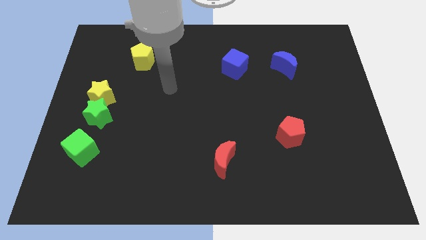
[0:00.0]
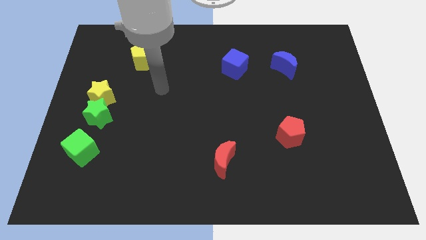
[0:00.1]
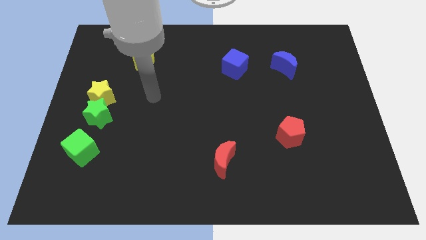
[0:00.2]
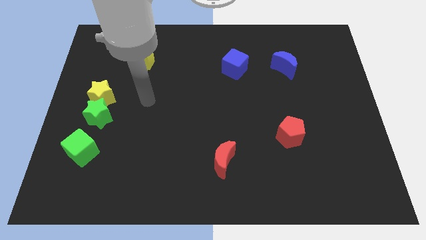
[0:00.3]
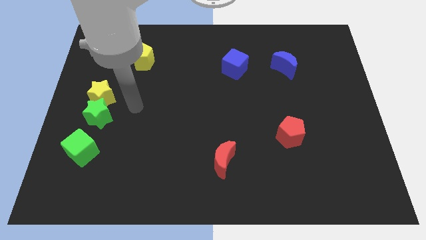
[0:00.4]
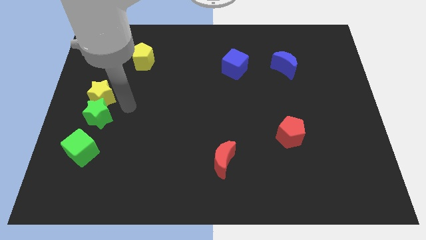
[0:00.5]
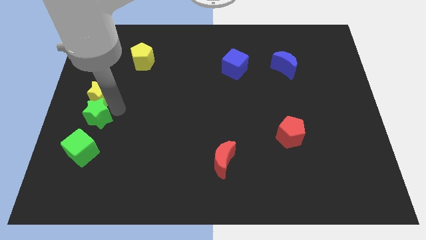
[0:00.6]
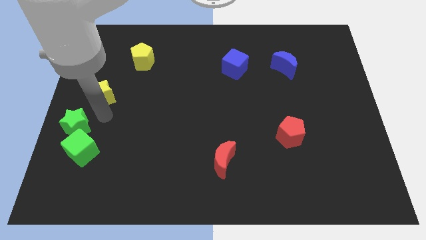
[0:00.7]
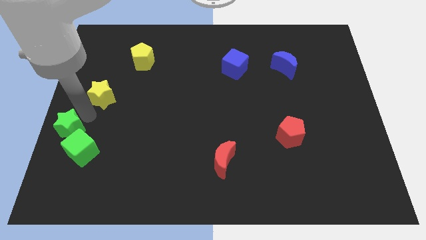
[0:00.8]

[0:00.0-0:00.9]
move the yellow star away from the green star

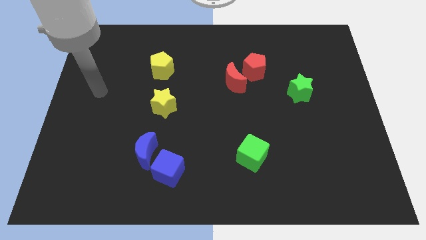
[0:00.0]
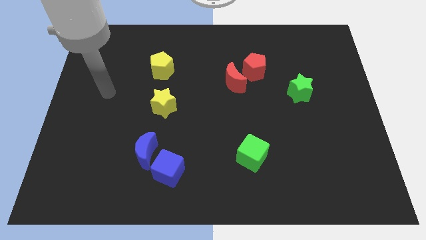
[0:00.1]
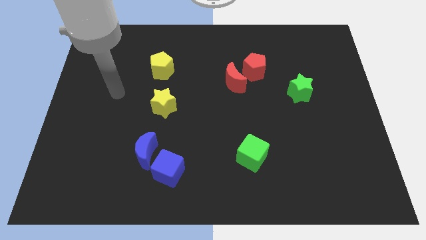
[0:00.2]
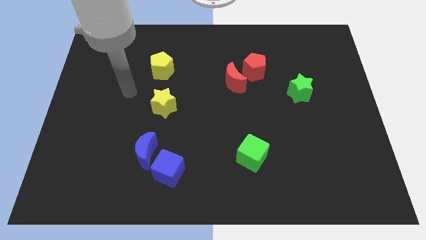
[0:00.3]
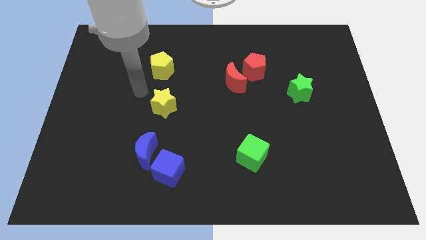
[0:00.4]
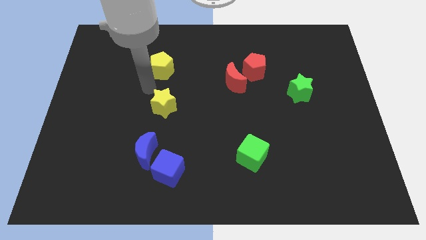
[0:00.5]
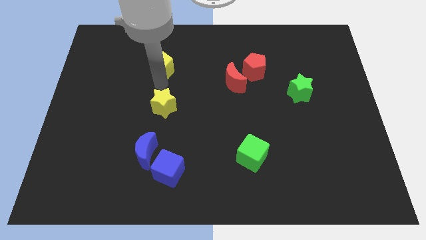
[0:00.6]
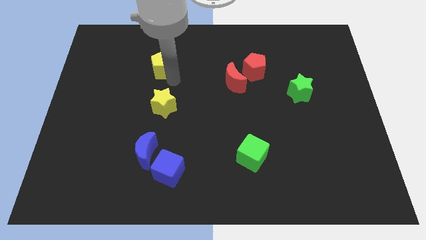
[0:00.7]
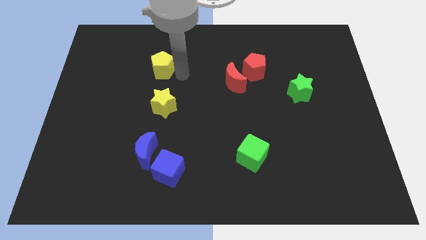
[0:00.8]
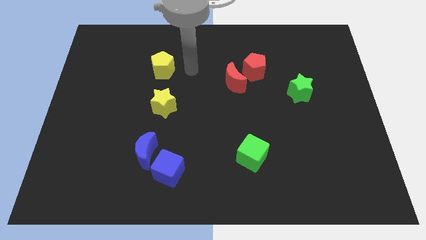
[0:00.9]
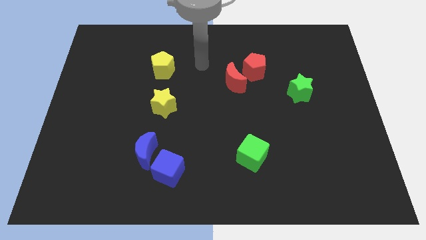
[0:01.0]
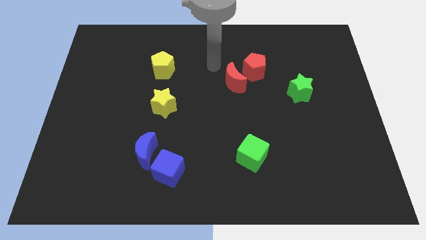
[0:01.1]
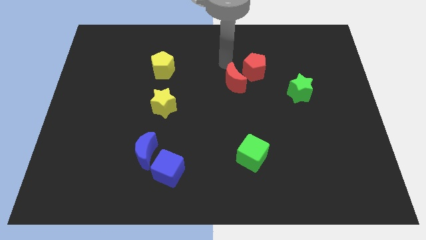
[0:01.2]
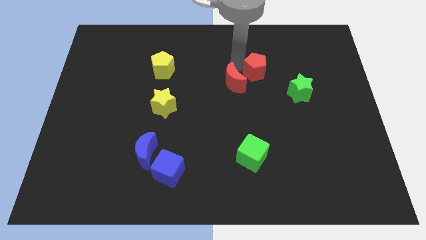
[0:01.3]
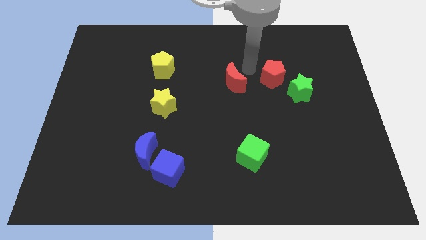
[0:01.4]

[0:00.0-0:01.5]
pull the red moon apart from the red pentagon

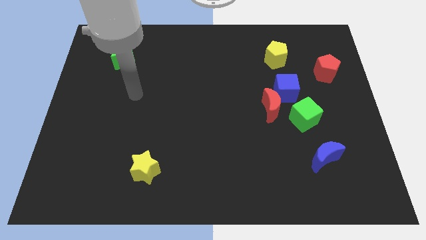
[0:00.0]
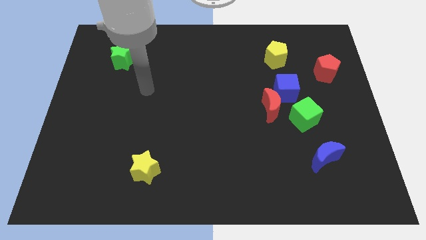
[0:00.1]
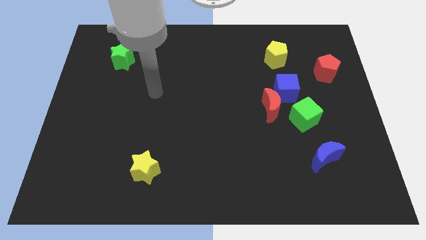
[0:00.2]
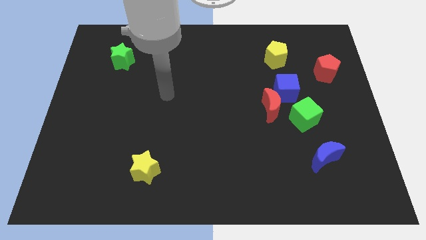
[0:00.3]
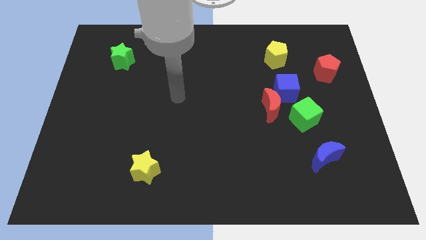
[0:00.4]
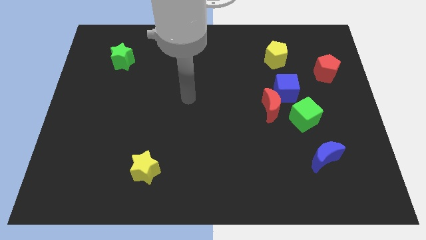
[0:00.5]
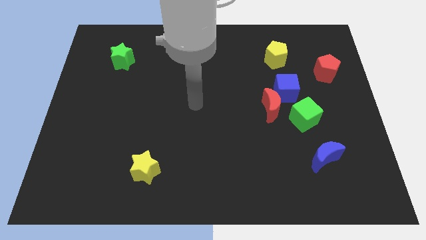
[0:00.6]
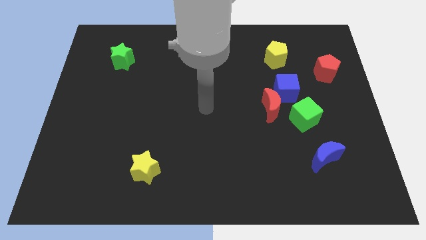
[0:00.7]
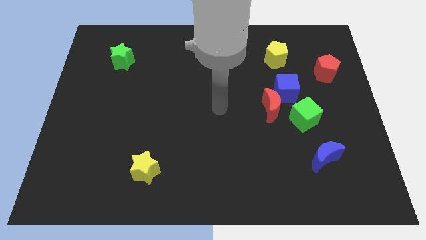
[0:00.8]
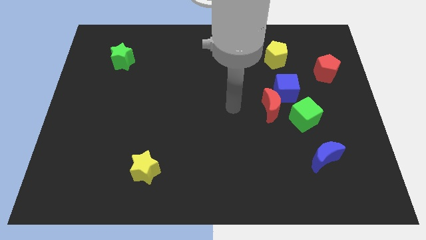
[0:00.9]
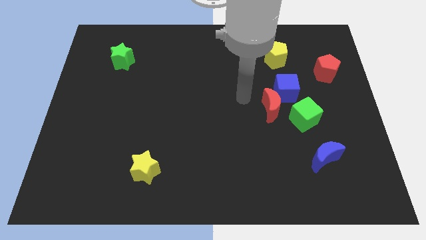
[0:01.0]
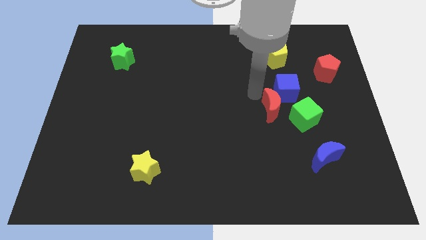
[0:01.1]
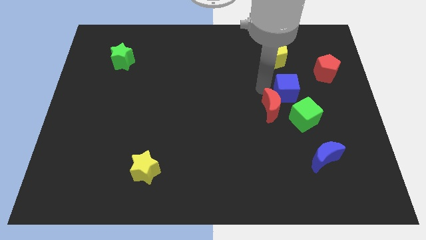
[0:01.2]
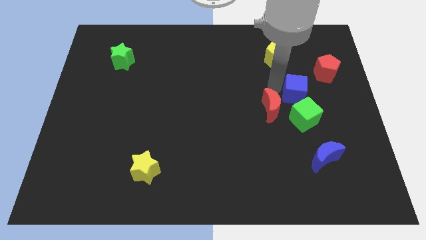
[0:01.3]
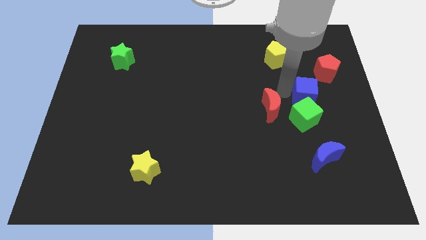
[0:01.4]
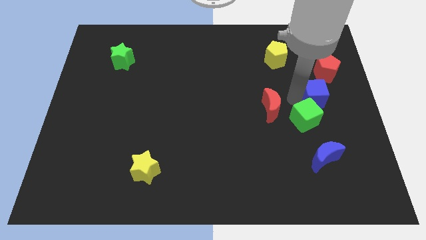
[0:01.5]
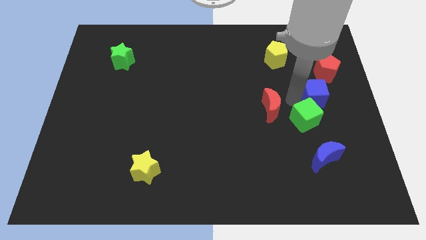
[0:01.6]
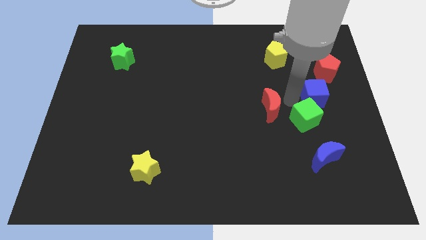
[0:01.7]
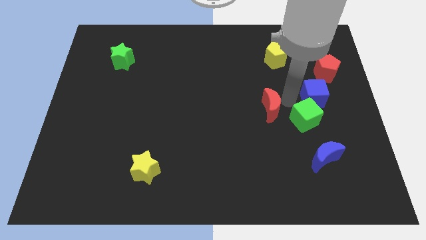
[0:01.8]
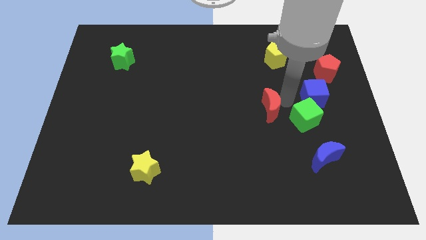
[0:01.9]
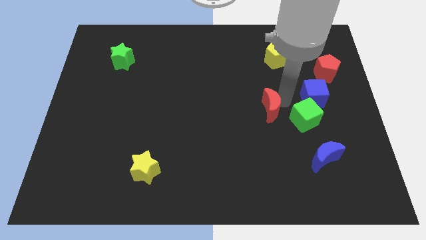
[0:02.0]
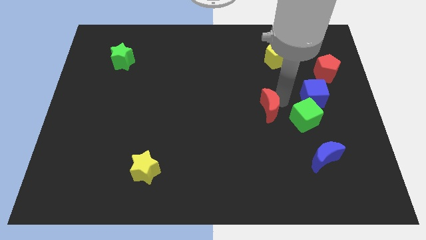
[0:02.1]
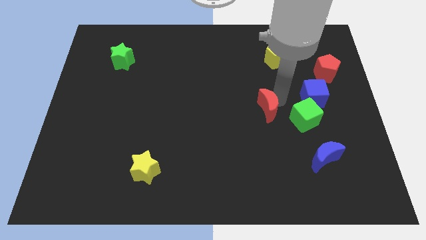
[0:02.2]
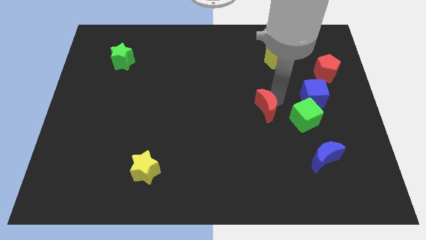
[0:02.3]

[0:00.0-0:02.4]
move the red moon away from the blue cube and green cube

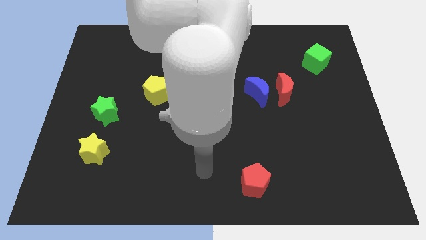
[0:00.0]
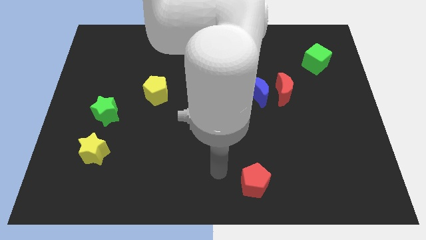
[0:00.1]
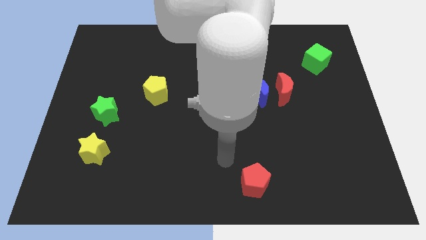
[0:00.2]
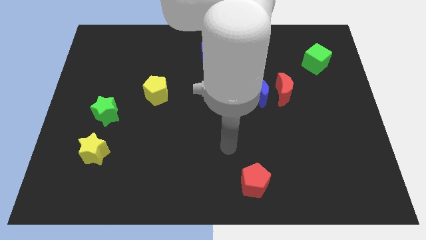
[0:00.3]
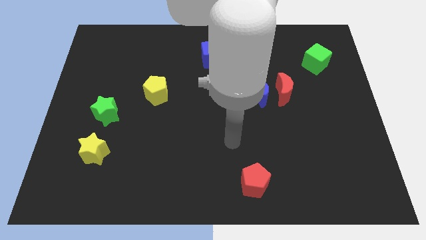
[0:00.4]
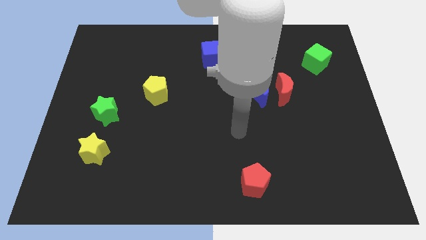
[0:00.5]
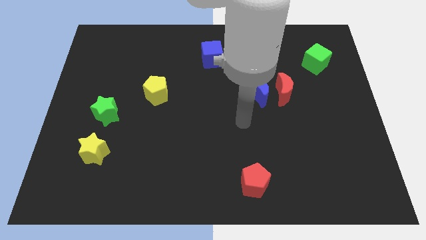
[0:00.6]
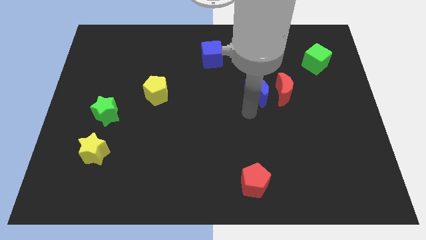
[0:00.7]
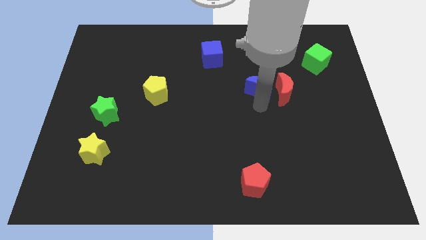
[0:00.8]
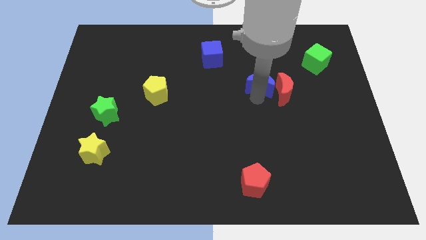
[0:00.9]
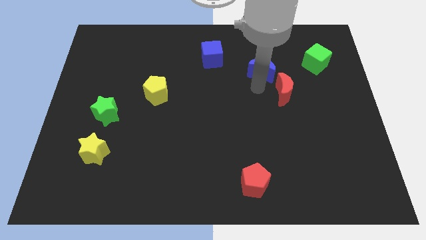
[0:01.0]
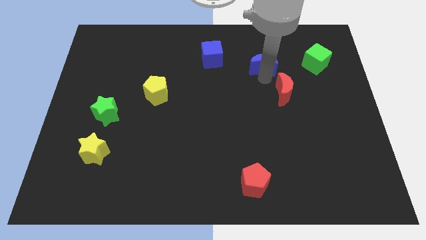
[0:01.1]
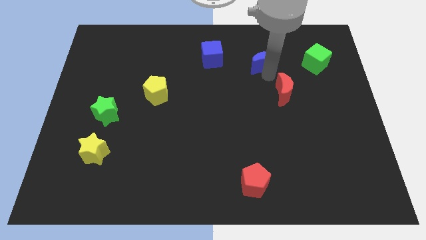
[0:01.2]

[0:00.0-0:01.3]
separate the red moon from the blue moon

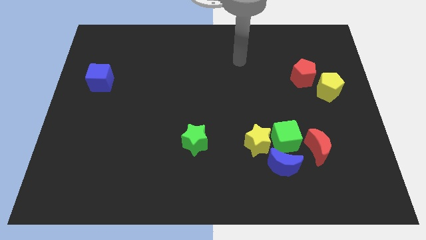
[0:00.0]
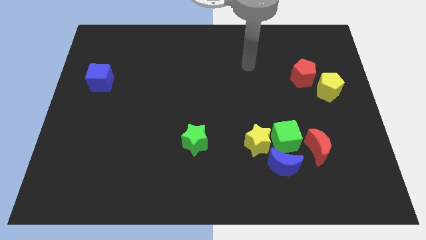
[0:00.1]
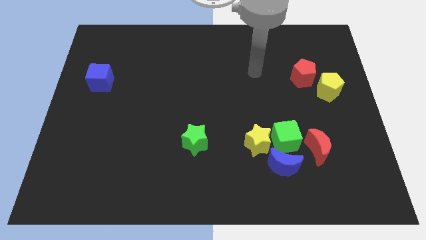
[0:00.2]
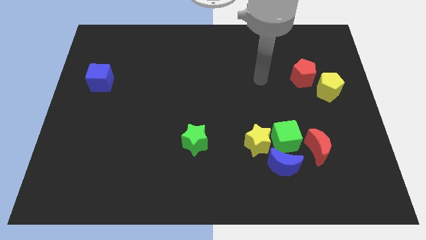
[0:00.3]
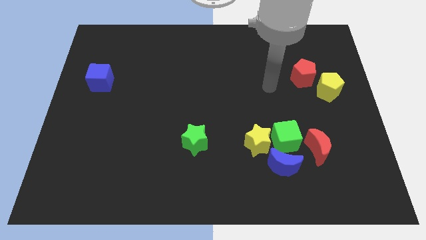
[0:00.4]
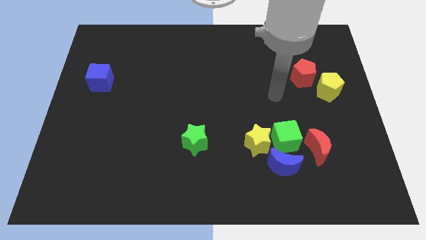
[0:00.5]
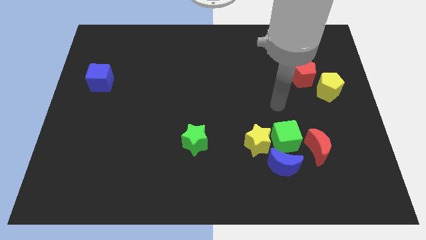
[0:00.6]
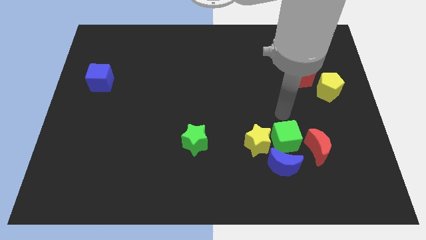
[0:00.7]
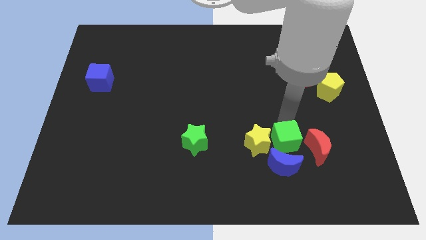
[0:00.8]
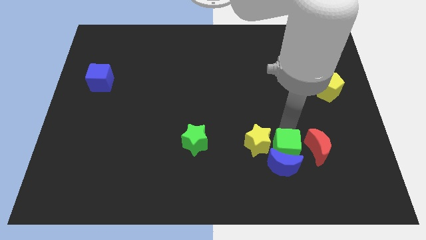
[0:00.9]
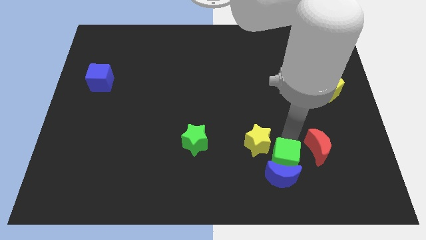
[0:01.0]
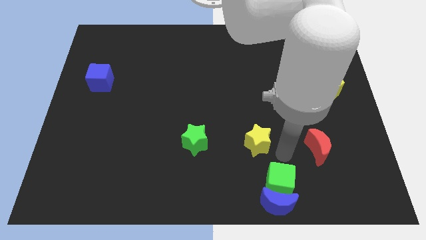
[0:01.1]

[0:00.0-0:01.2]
move the yellow star away from the green cube and blue moon

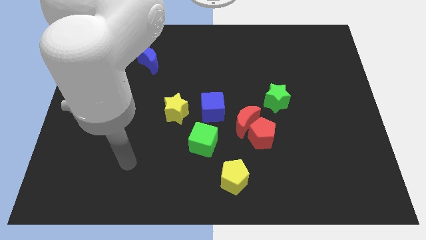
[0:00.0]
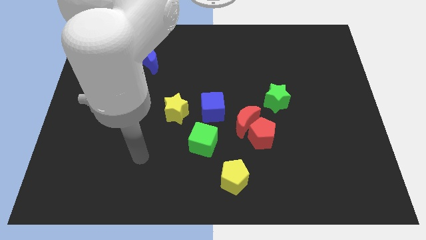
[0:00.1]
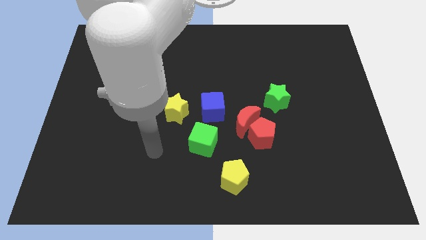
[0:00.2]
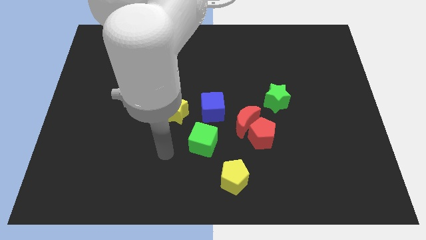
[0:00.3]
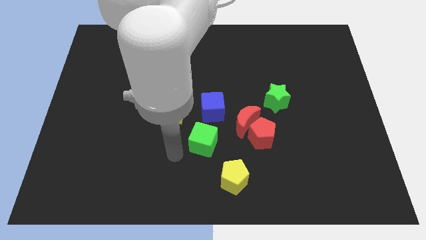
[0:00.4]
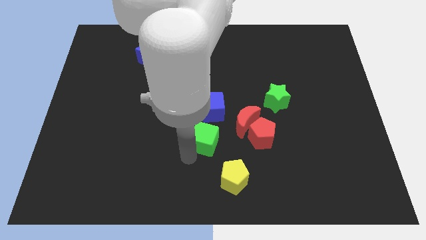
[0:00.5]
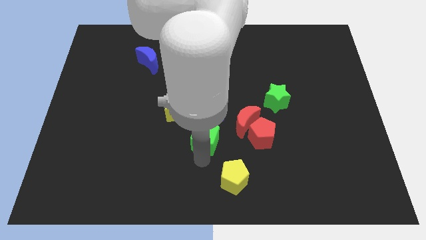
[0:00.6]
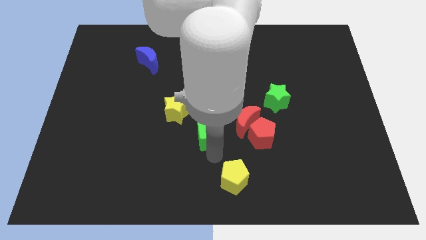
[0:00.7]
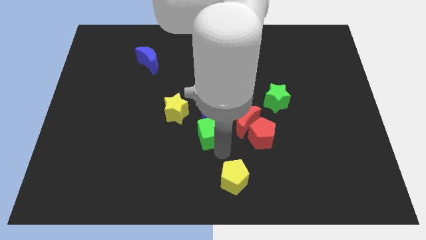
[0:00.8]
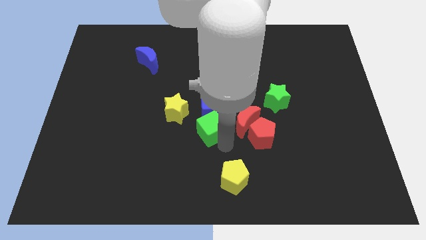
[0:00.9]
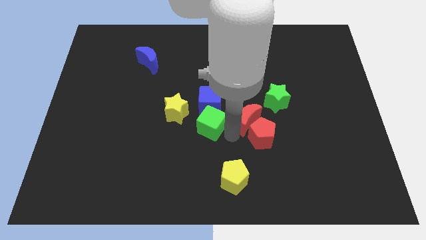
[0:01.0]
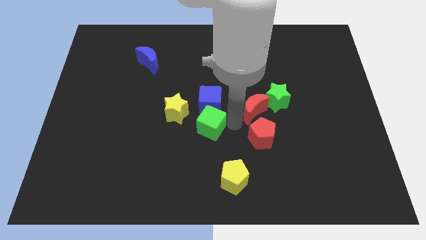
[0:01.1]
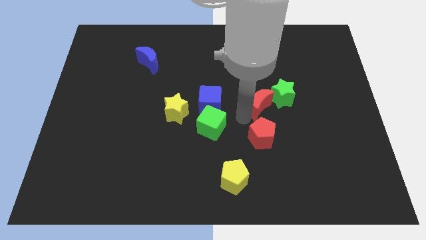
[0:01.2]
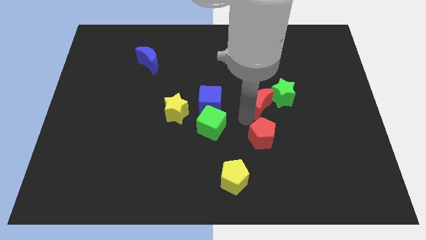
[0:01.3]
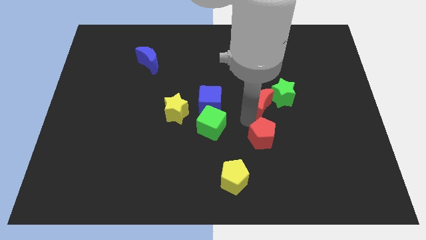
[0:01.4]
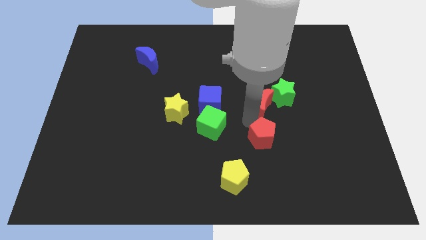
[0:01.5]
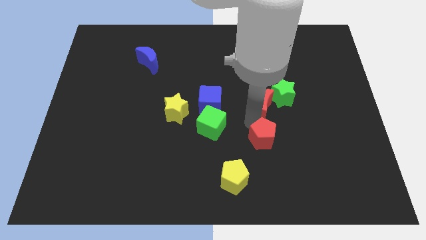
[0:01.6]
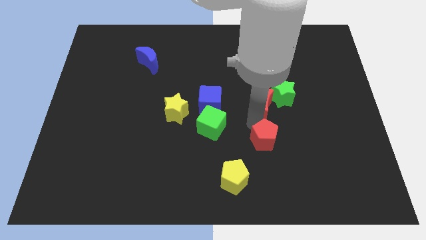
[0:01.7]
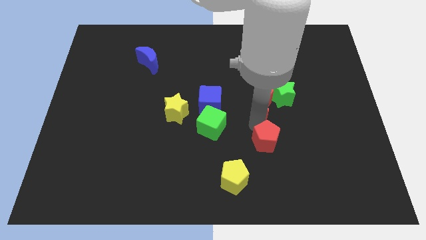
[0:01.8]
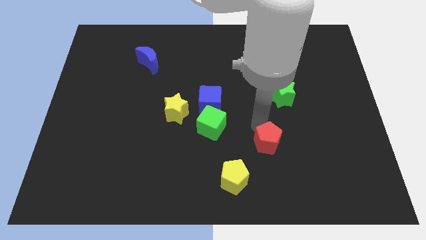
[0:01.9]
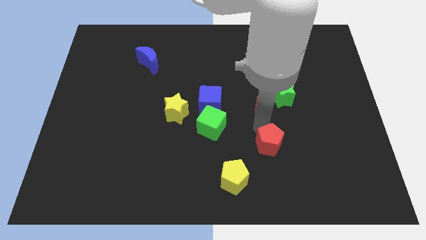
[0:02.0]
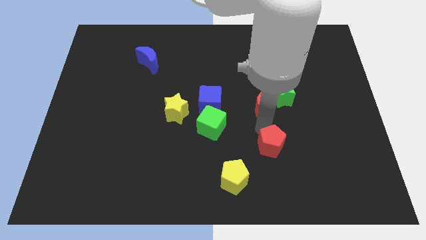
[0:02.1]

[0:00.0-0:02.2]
separate the red pentagon from the red moon
